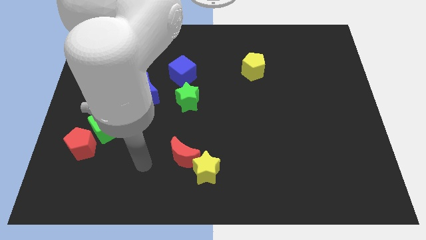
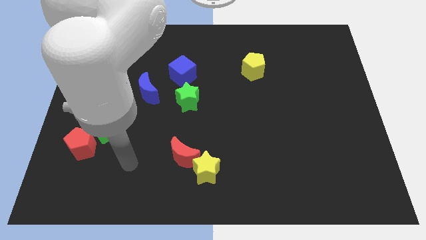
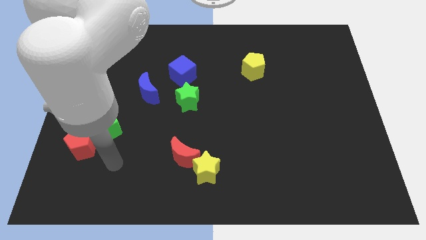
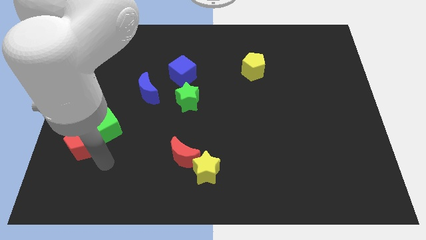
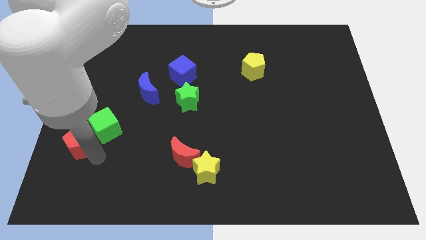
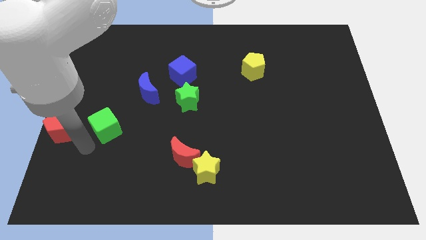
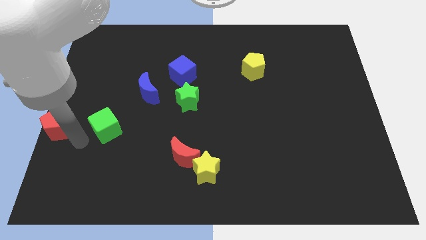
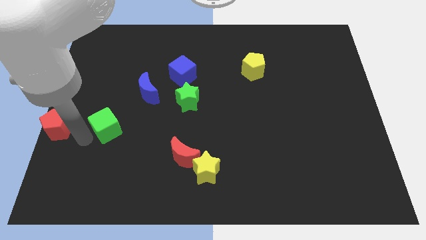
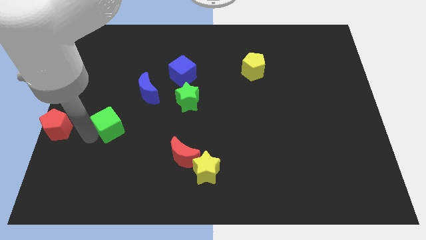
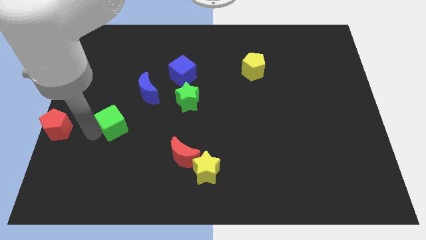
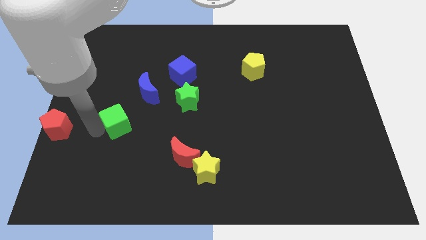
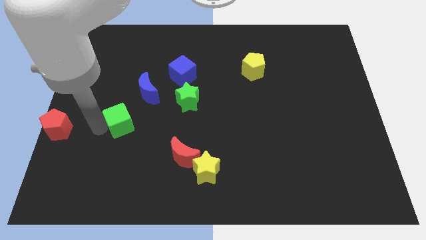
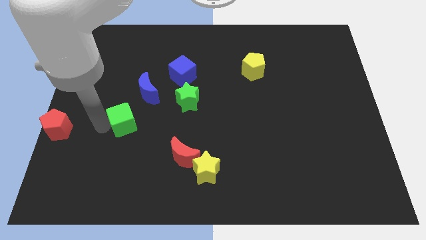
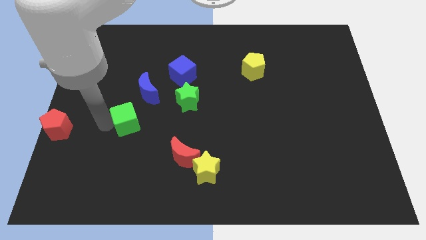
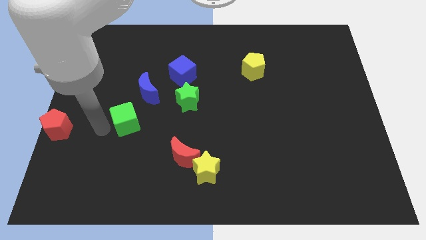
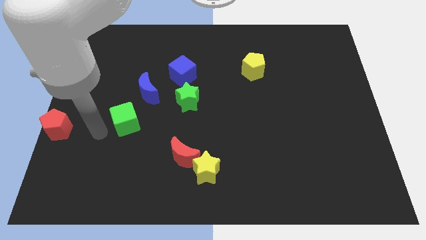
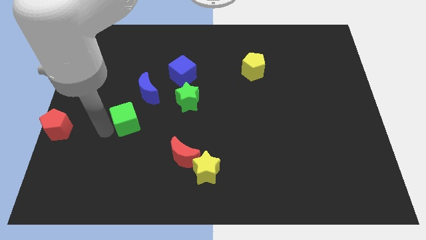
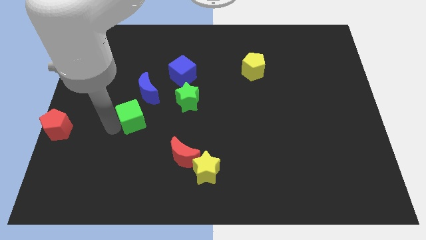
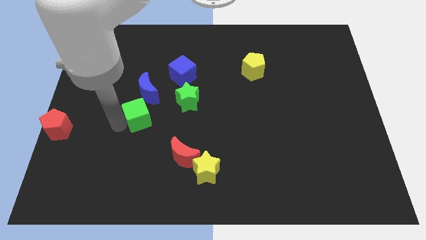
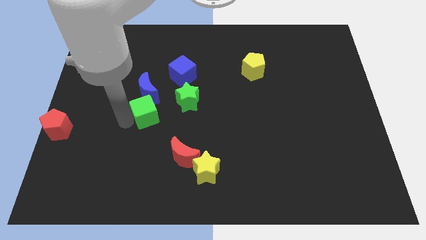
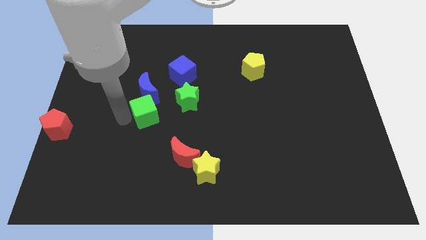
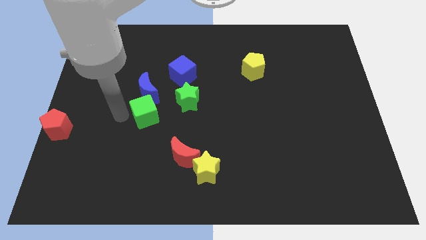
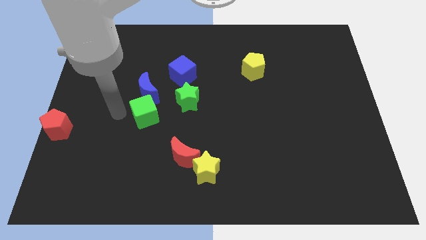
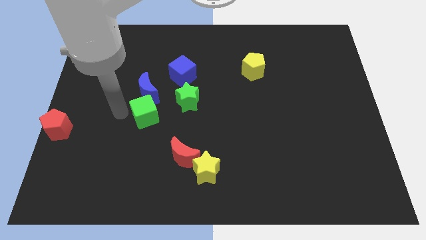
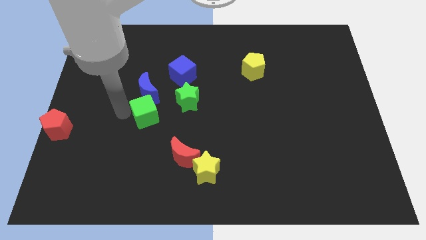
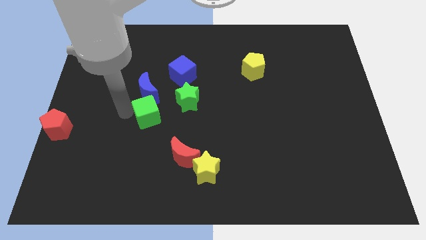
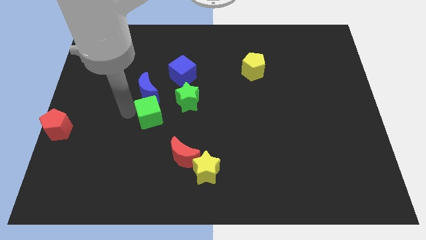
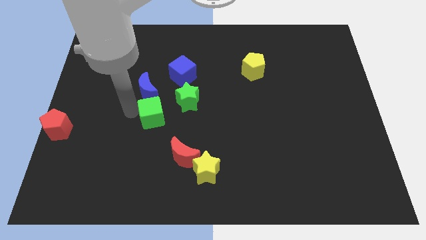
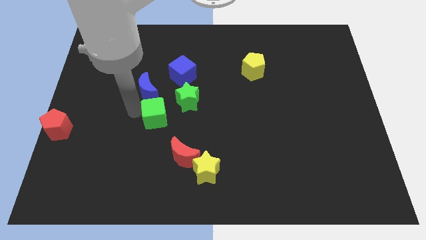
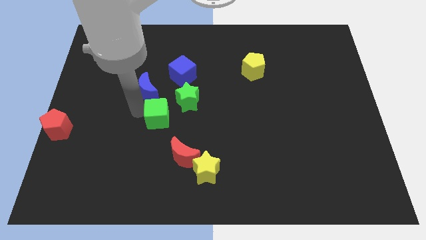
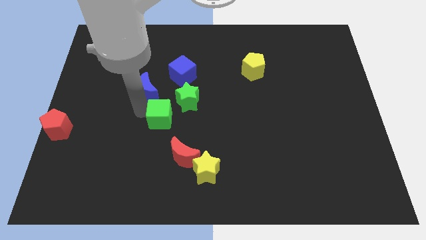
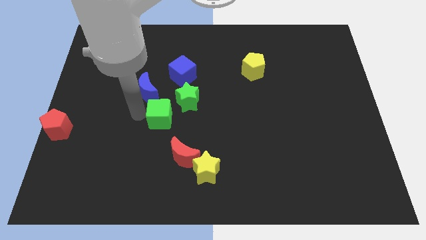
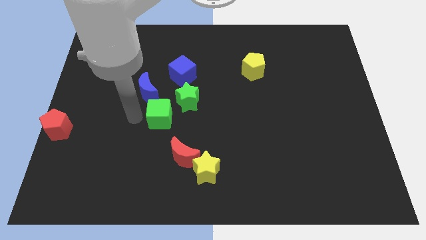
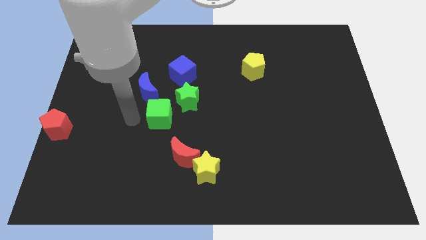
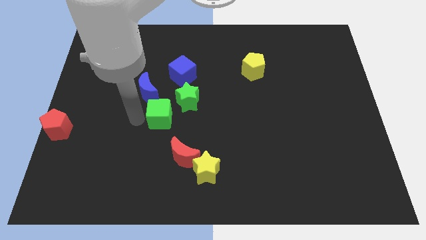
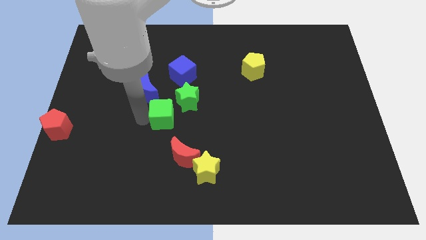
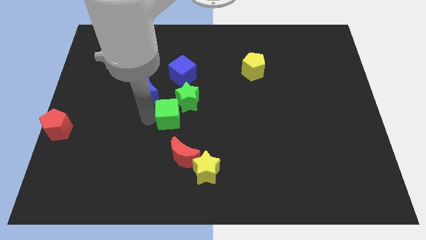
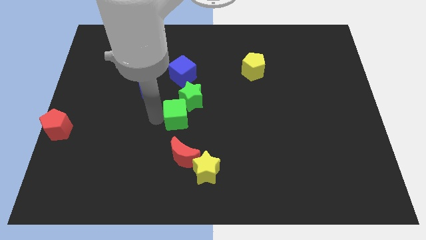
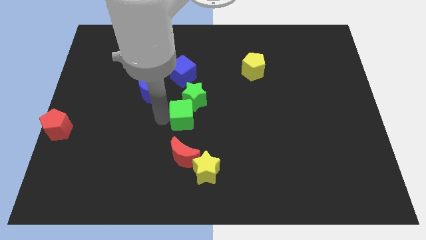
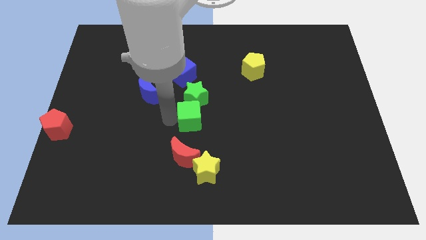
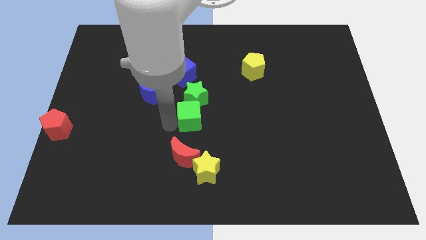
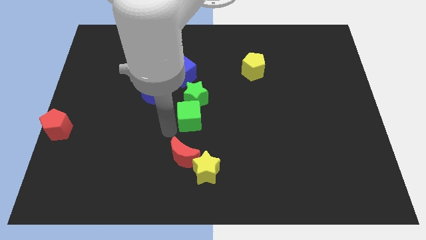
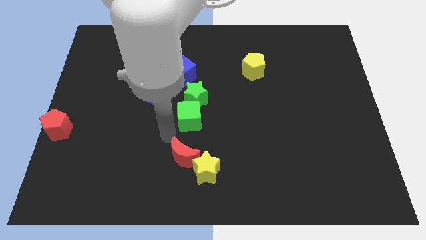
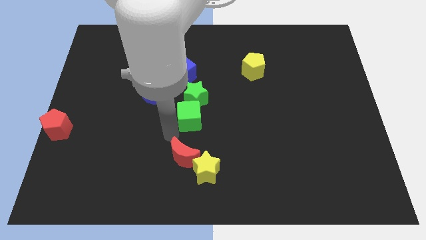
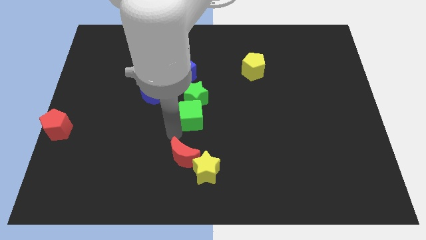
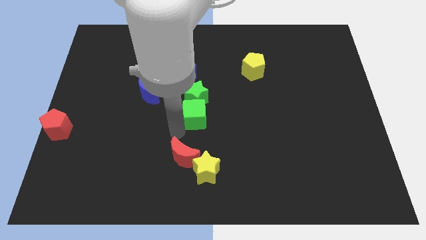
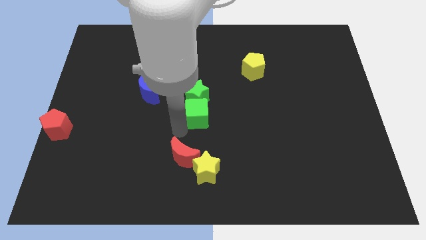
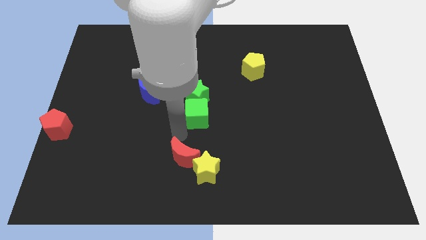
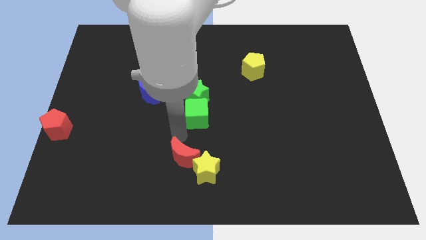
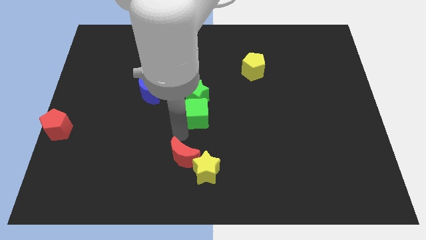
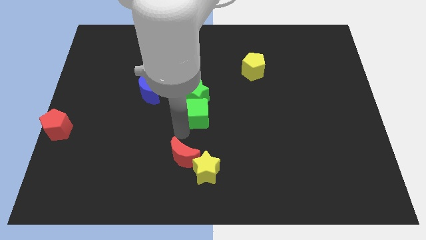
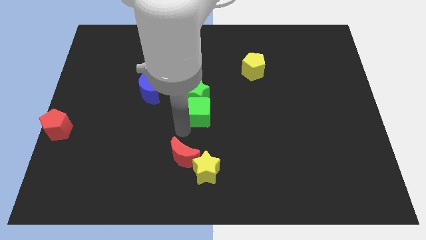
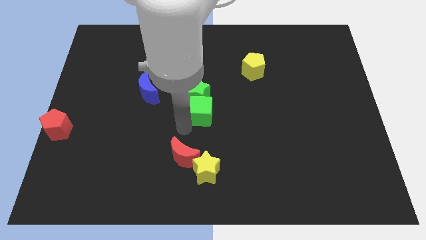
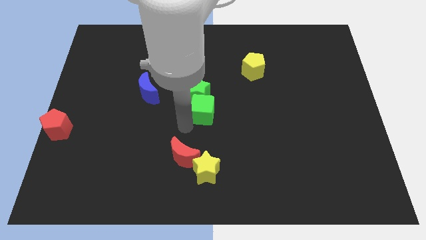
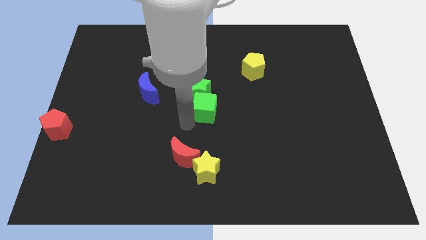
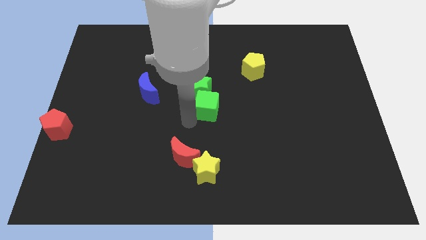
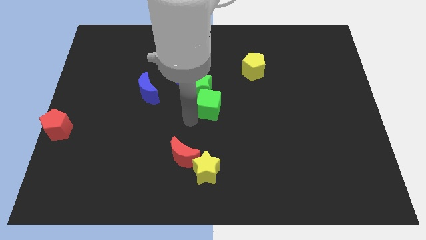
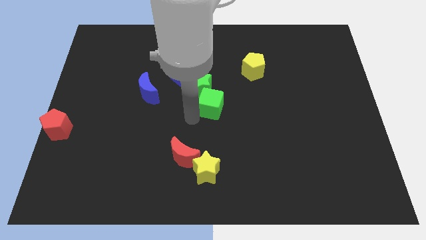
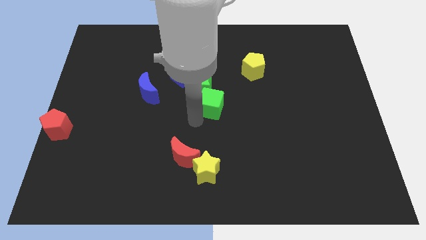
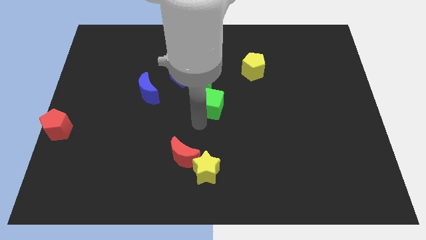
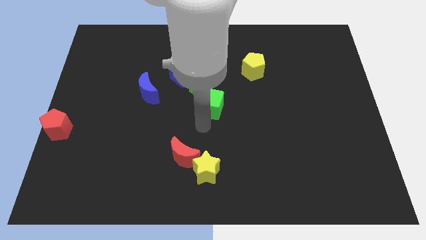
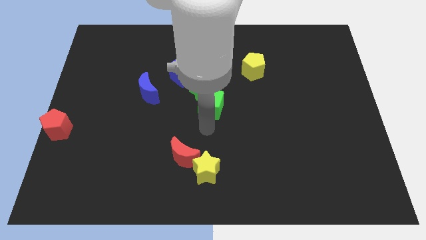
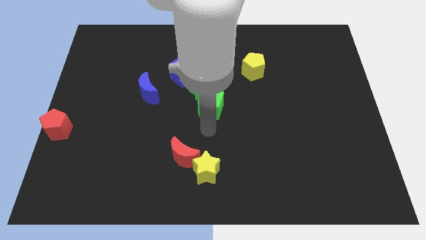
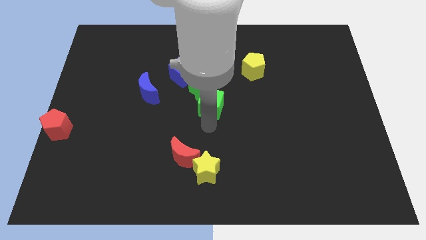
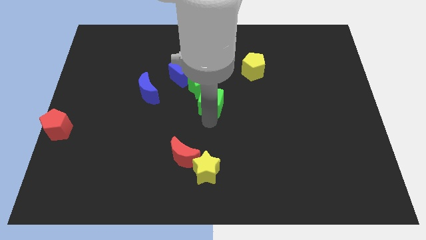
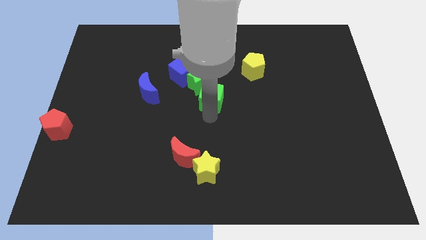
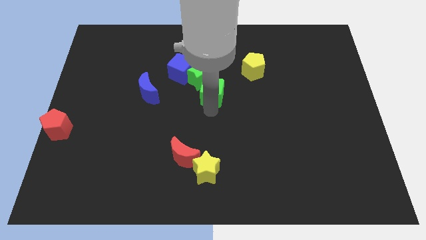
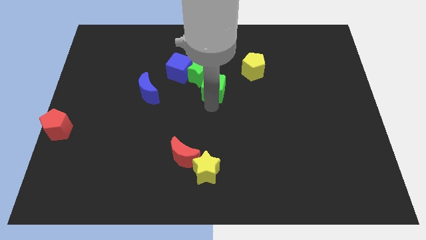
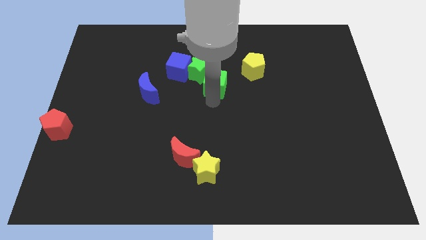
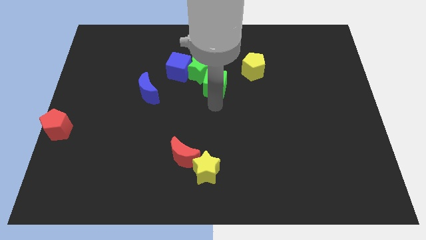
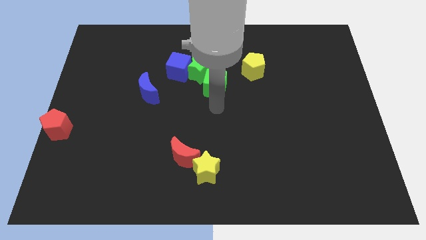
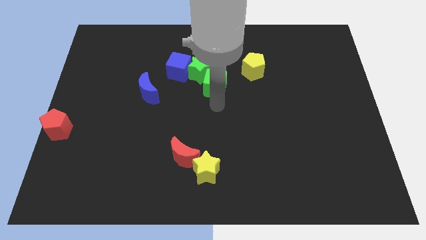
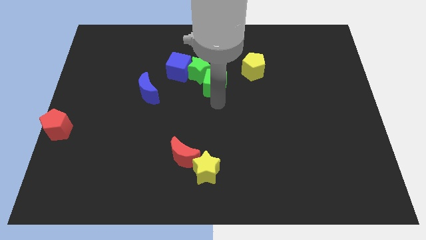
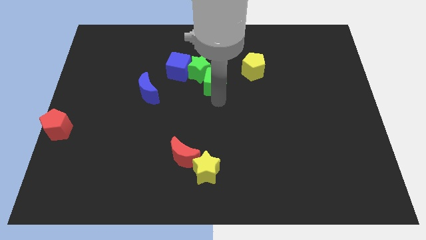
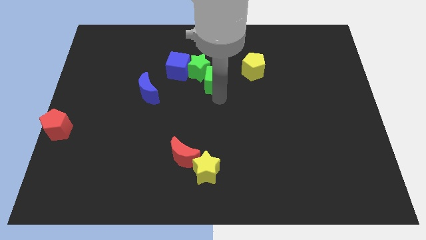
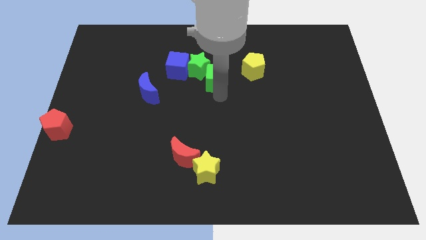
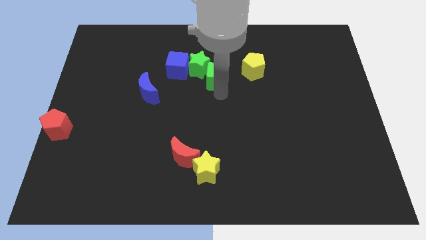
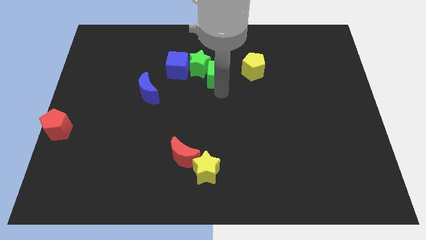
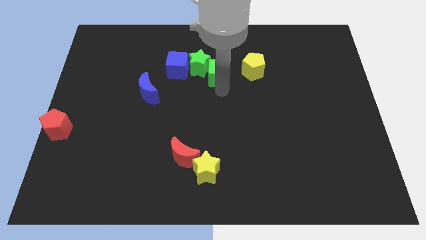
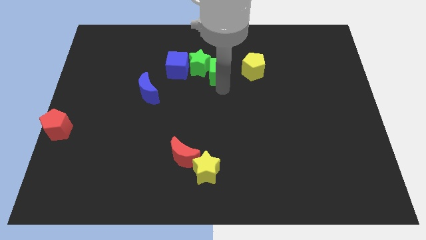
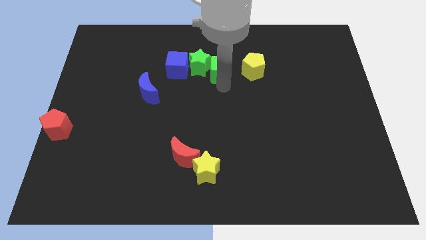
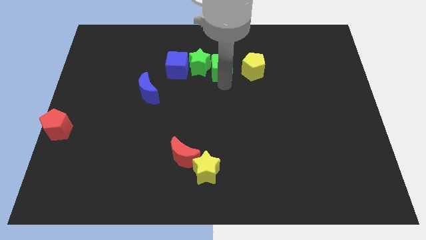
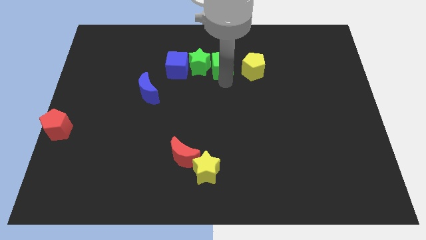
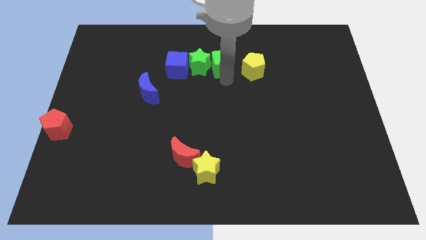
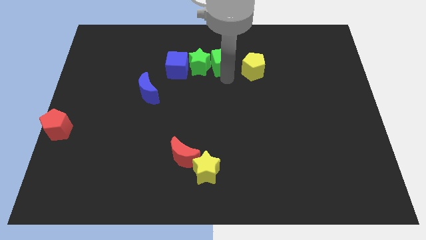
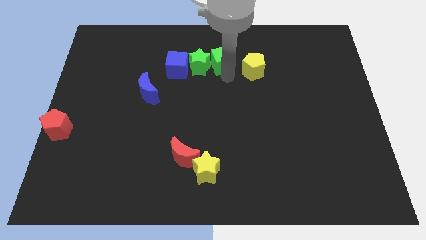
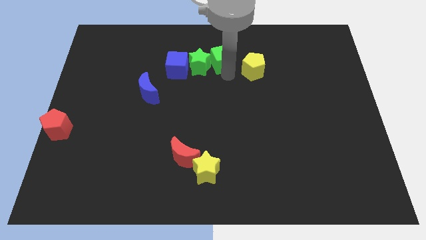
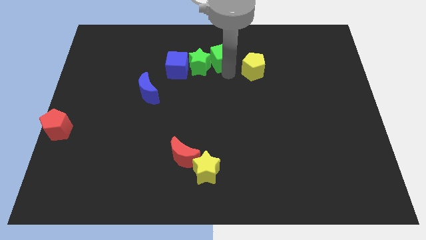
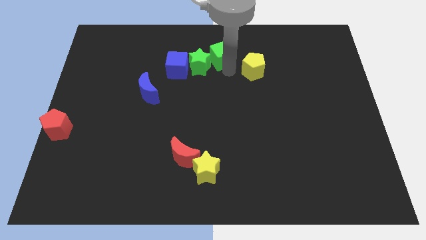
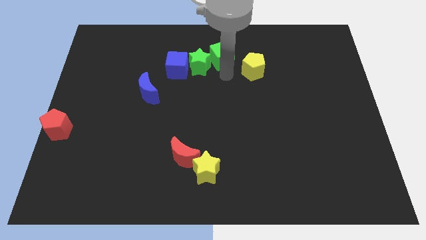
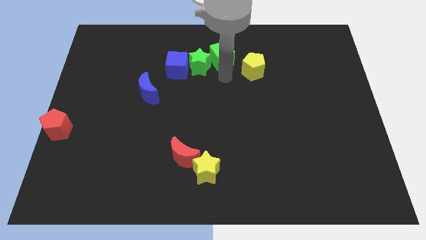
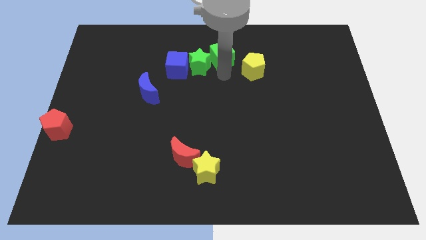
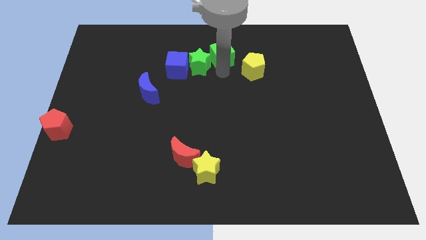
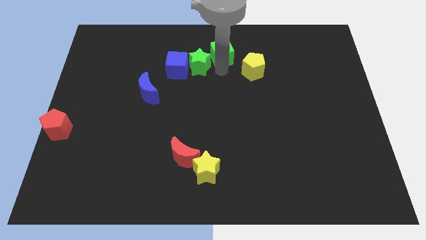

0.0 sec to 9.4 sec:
push the green cube to the top side
